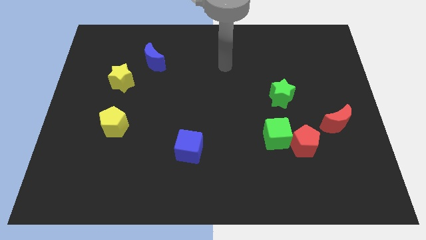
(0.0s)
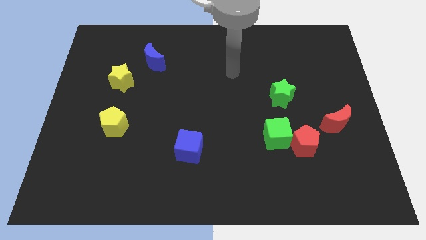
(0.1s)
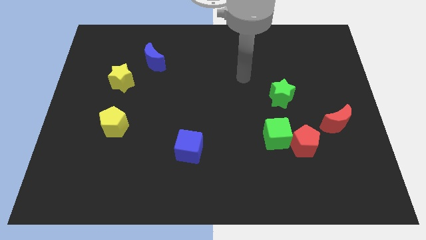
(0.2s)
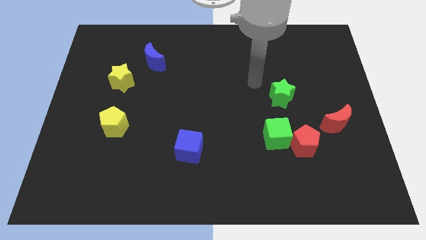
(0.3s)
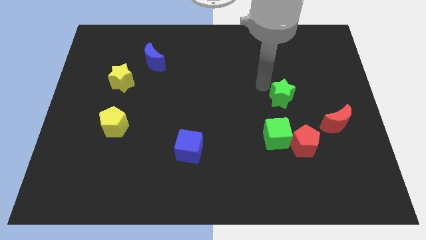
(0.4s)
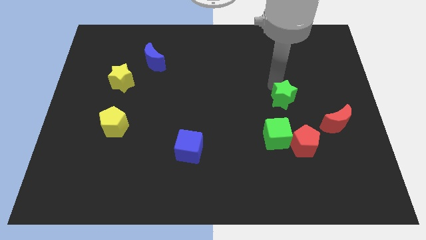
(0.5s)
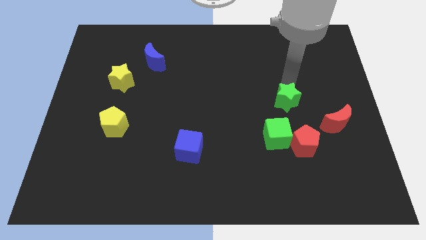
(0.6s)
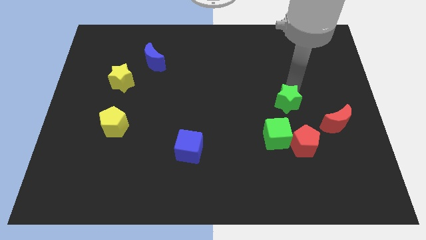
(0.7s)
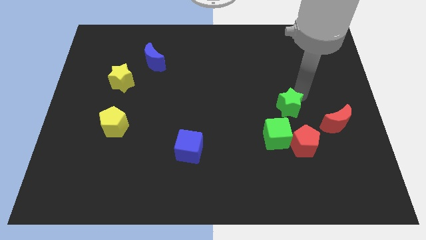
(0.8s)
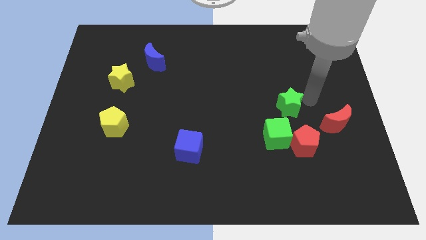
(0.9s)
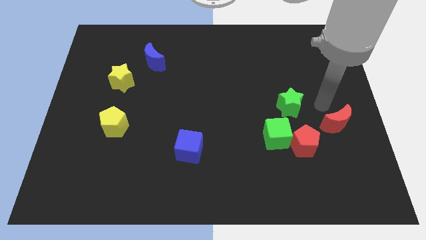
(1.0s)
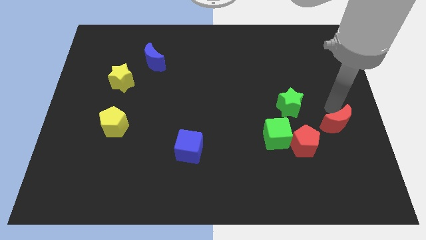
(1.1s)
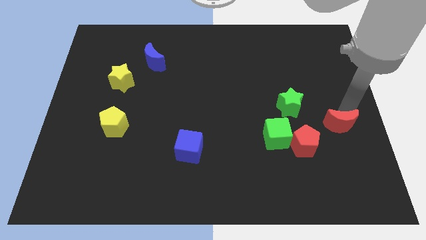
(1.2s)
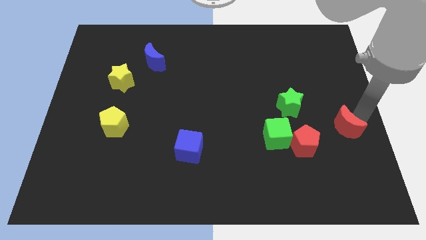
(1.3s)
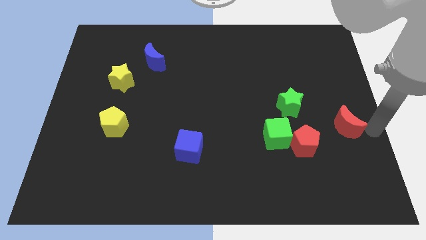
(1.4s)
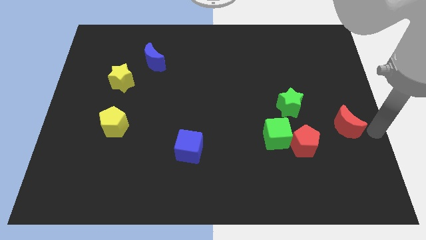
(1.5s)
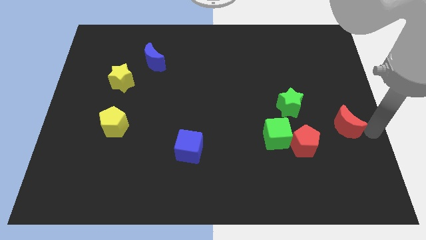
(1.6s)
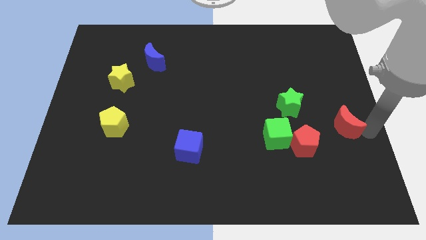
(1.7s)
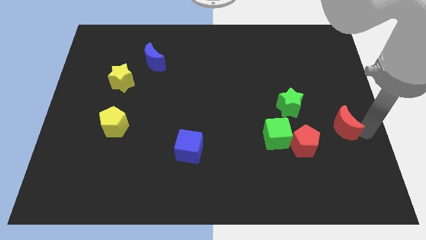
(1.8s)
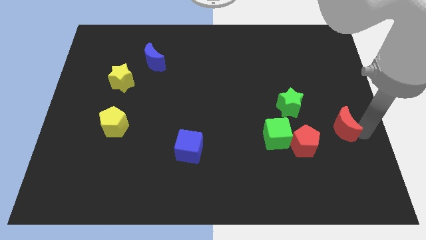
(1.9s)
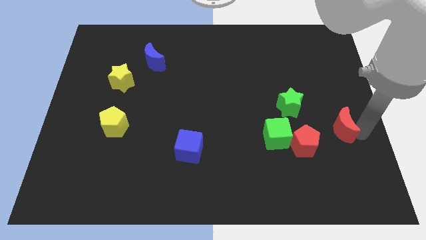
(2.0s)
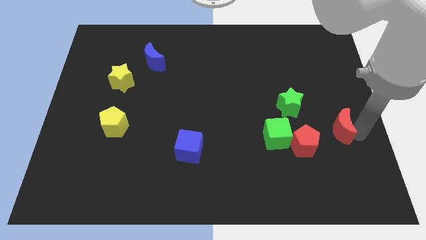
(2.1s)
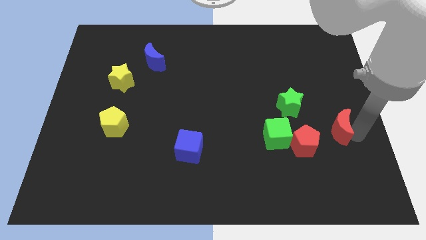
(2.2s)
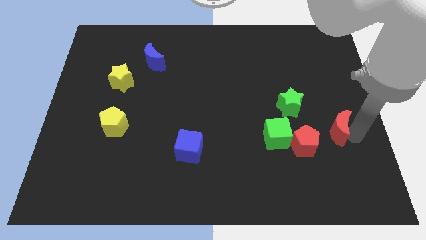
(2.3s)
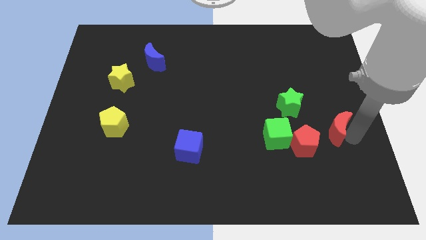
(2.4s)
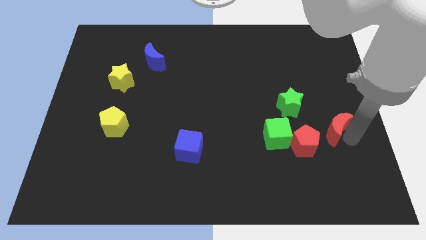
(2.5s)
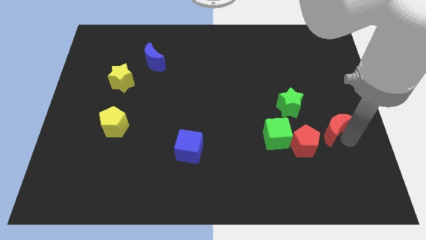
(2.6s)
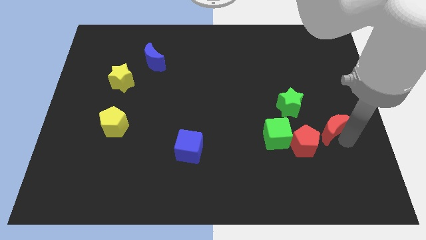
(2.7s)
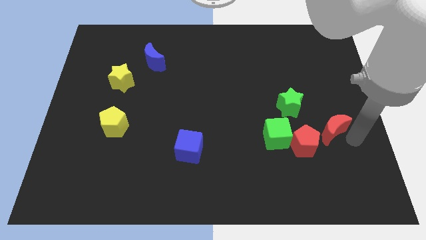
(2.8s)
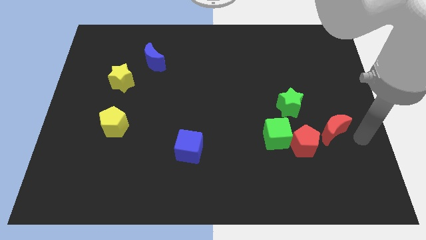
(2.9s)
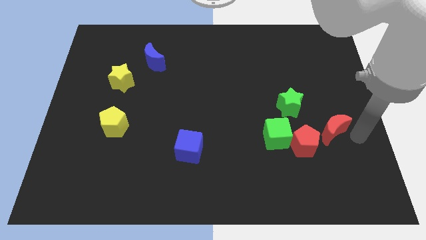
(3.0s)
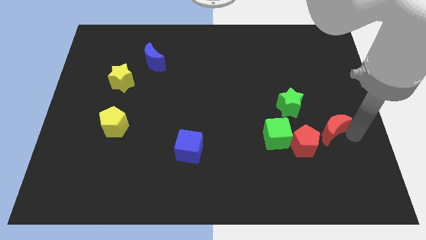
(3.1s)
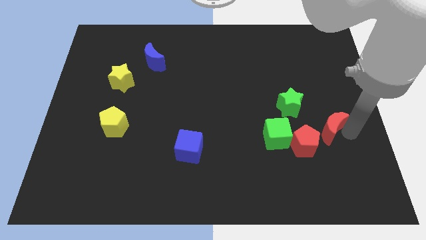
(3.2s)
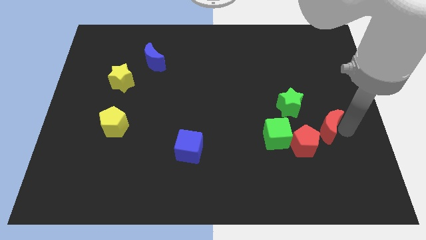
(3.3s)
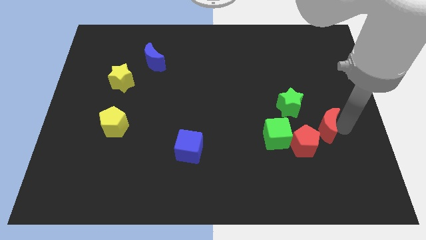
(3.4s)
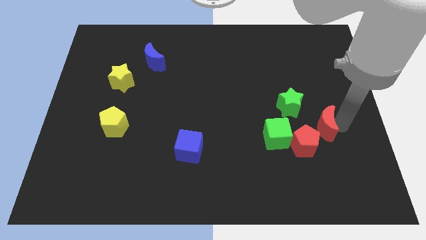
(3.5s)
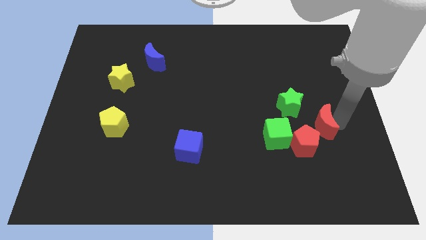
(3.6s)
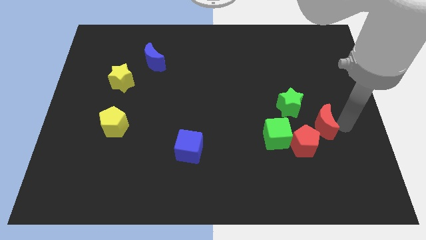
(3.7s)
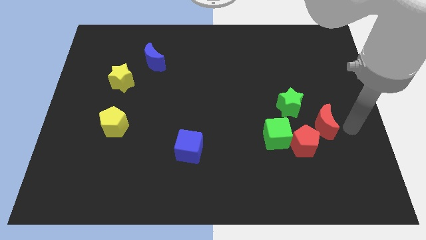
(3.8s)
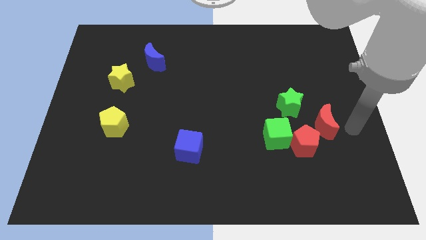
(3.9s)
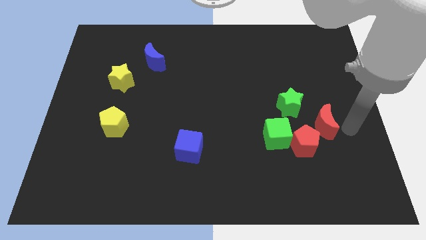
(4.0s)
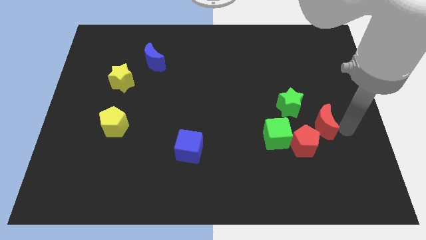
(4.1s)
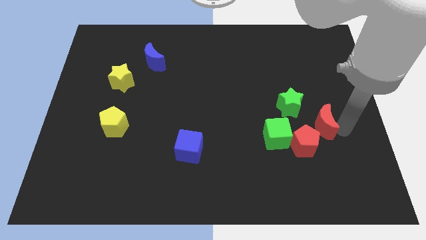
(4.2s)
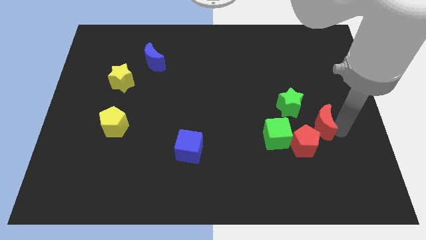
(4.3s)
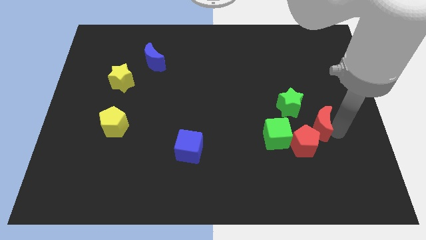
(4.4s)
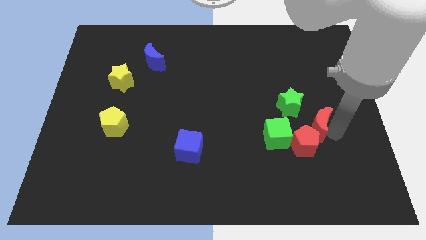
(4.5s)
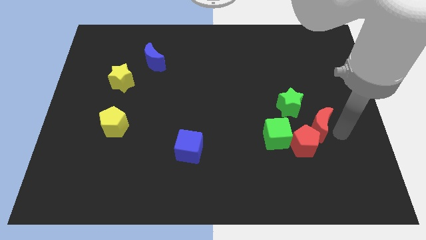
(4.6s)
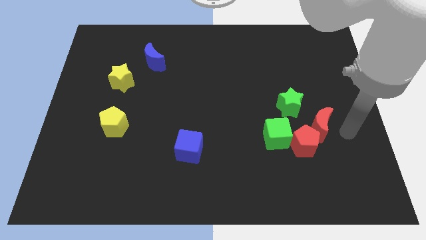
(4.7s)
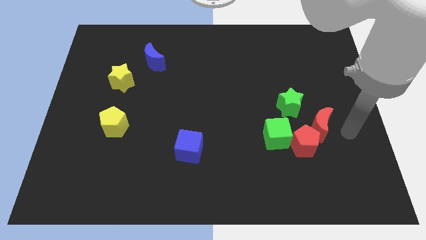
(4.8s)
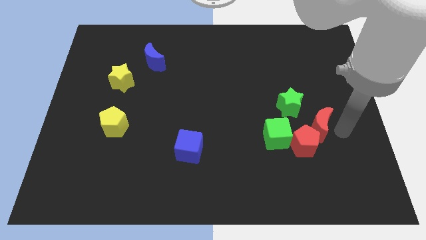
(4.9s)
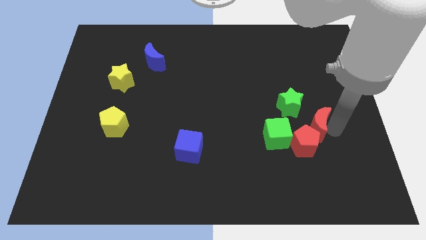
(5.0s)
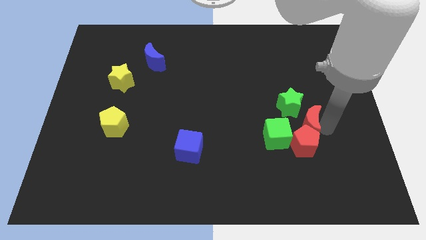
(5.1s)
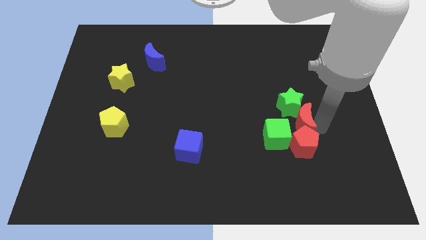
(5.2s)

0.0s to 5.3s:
push the red moon diagonally up and to the left of the red pentagon

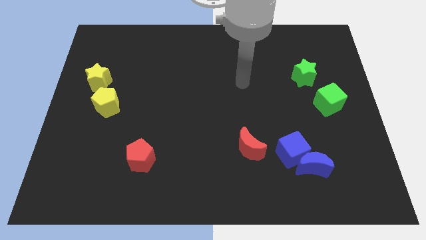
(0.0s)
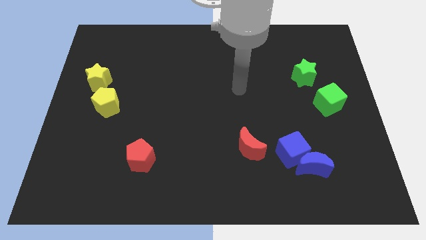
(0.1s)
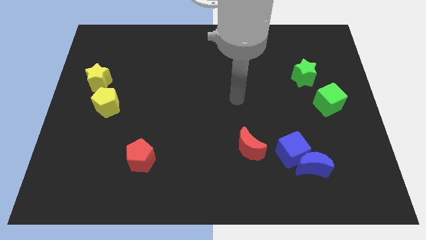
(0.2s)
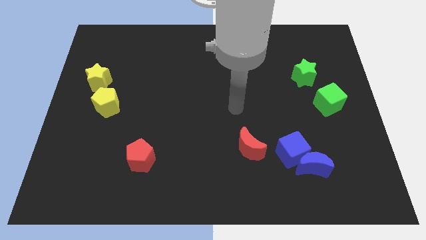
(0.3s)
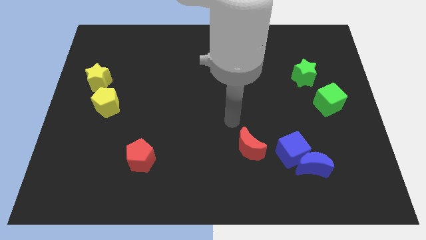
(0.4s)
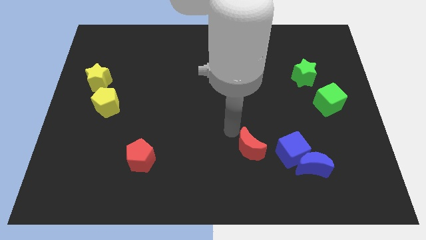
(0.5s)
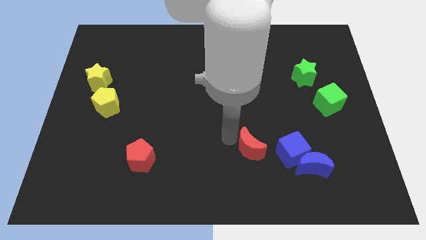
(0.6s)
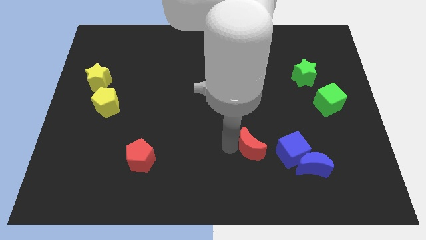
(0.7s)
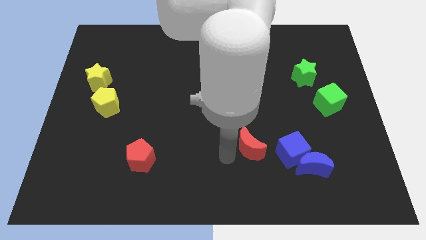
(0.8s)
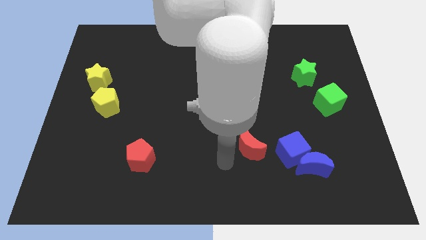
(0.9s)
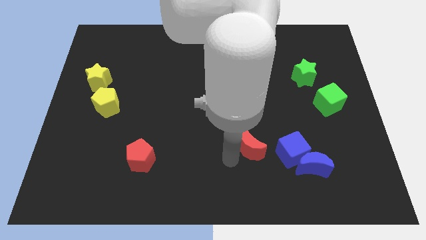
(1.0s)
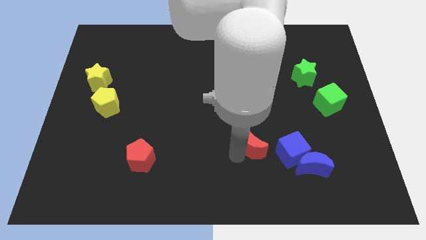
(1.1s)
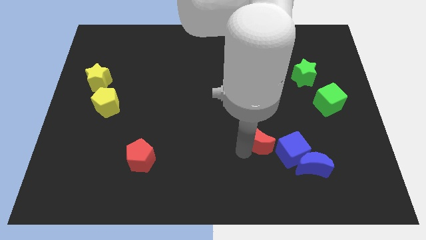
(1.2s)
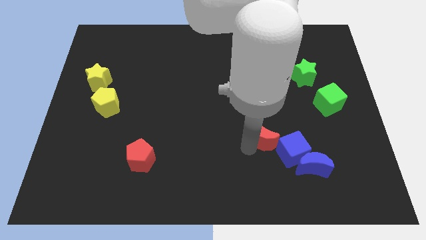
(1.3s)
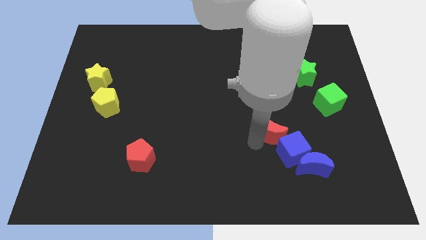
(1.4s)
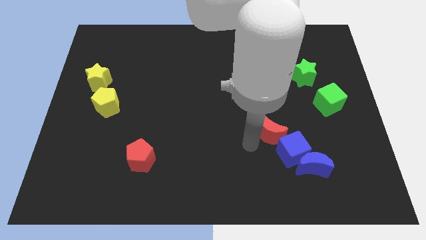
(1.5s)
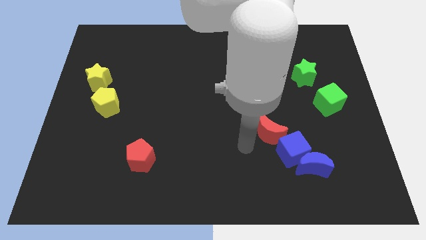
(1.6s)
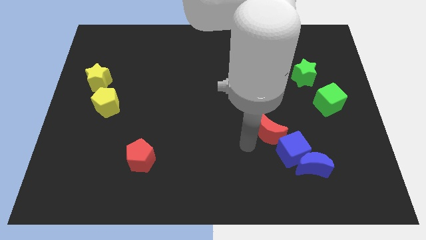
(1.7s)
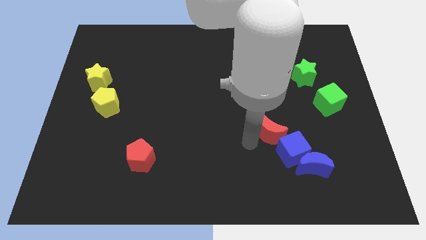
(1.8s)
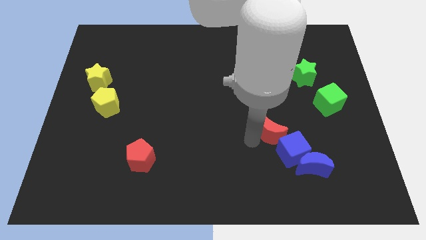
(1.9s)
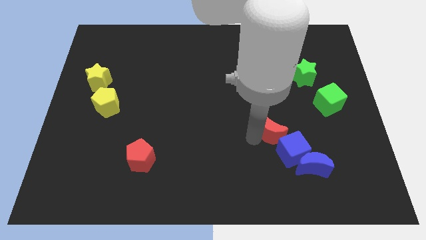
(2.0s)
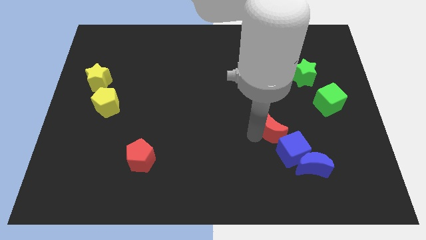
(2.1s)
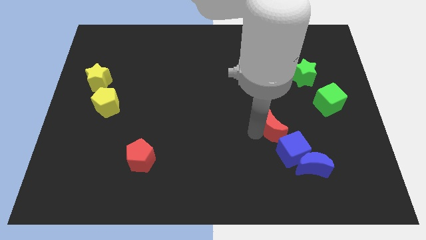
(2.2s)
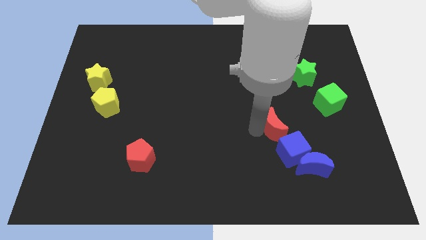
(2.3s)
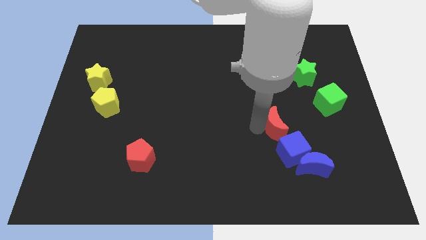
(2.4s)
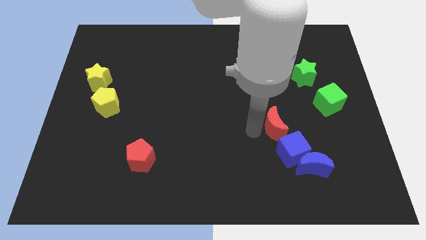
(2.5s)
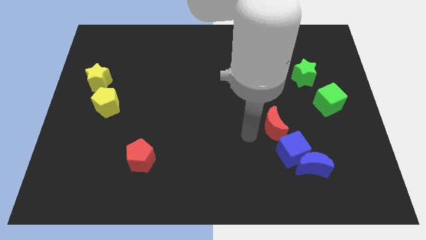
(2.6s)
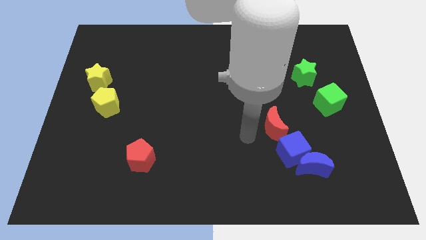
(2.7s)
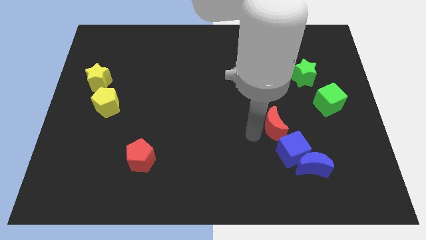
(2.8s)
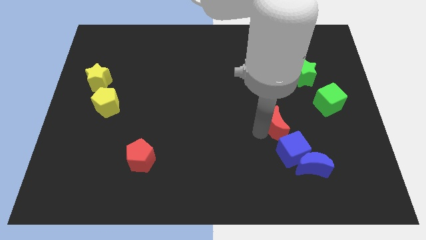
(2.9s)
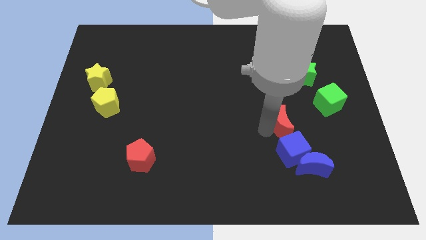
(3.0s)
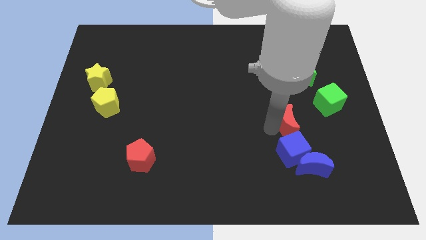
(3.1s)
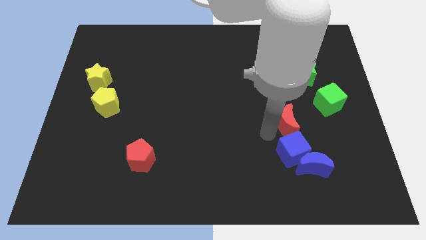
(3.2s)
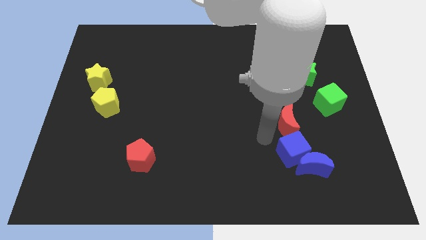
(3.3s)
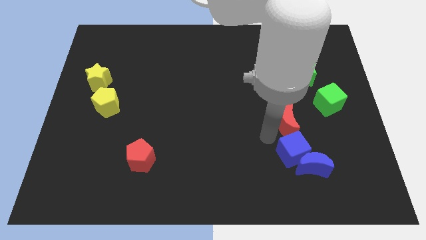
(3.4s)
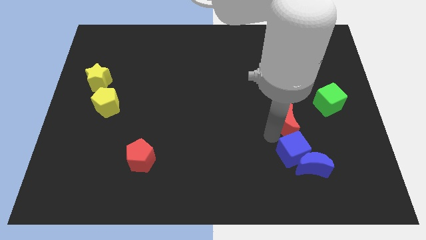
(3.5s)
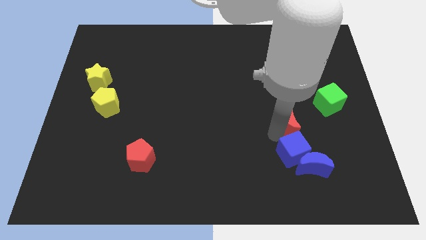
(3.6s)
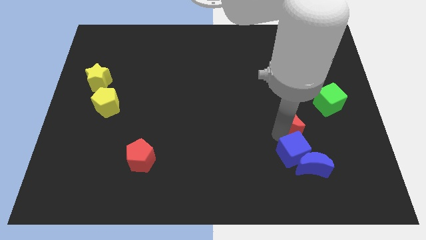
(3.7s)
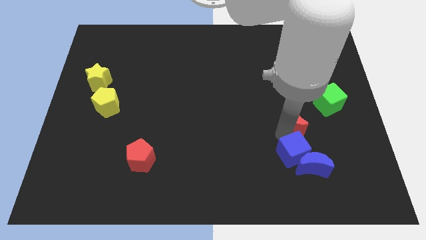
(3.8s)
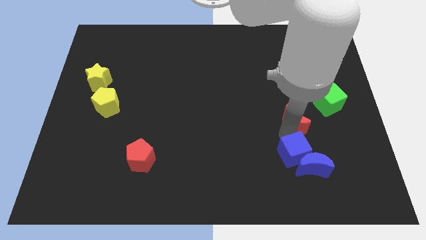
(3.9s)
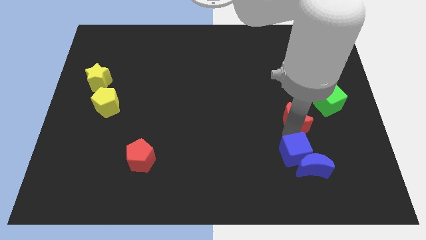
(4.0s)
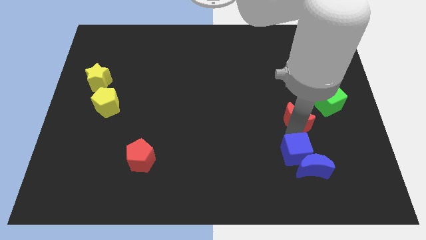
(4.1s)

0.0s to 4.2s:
slide the red moon to the bottom of the green star
